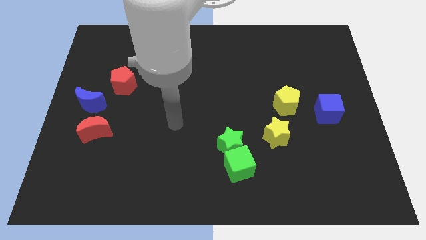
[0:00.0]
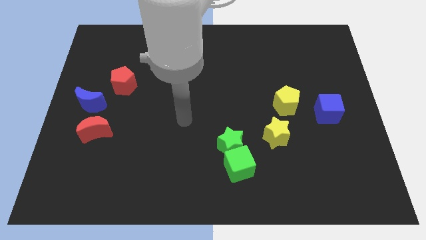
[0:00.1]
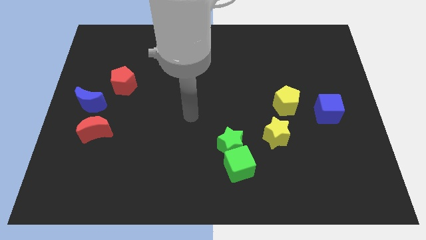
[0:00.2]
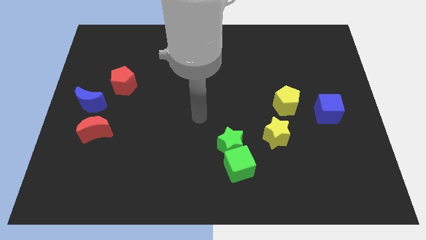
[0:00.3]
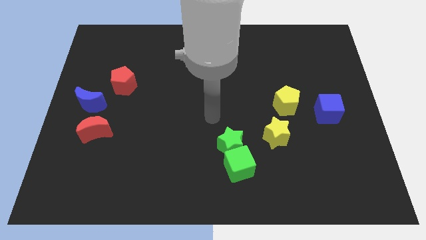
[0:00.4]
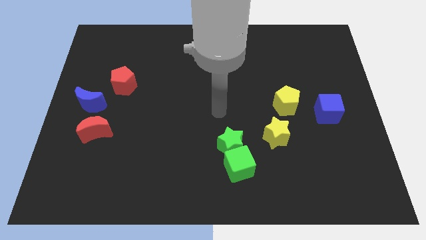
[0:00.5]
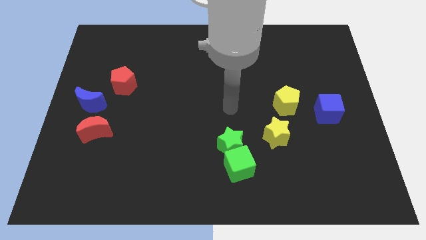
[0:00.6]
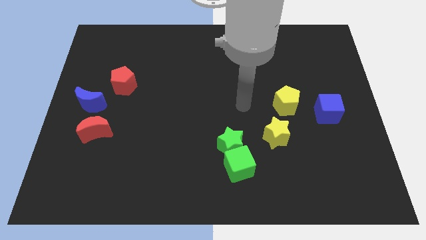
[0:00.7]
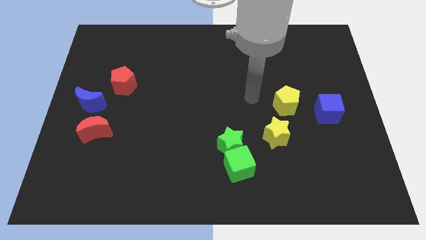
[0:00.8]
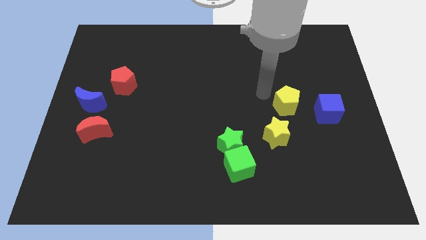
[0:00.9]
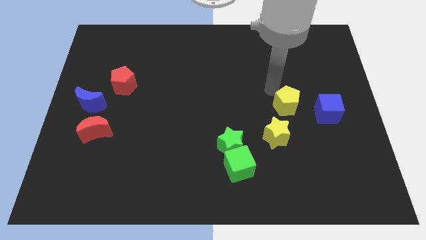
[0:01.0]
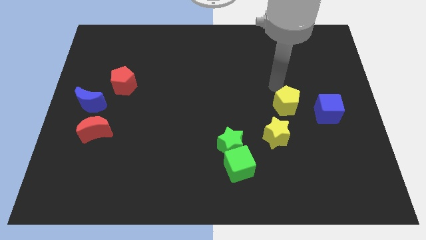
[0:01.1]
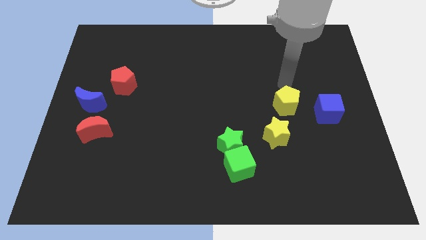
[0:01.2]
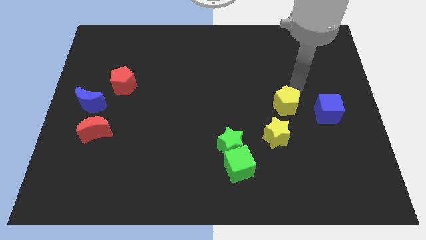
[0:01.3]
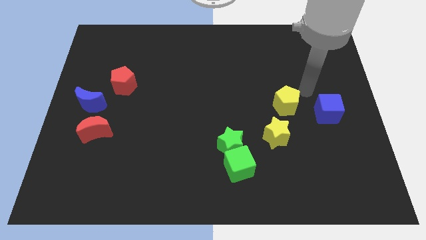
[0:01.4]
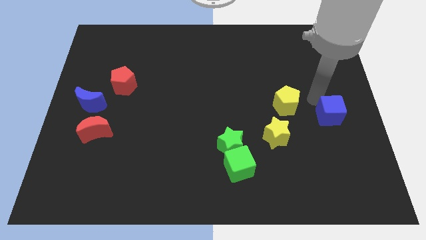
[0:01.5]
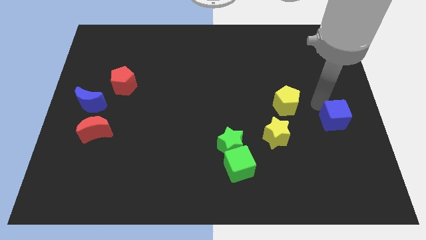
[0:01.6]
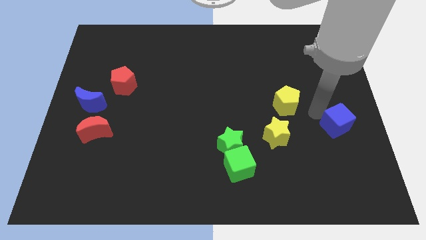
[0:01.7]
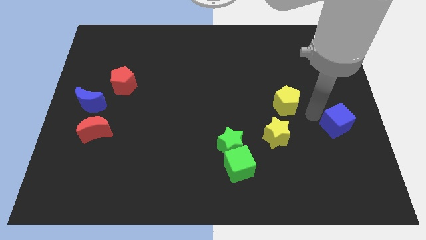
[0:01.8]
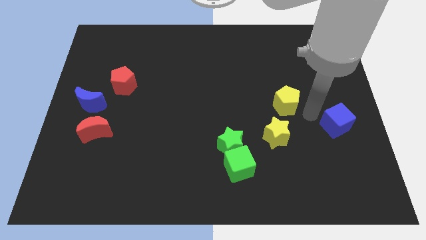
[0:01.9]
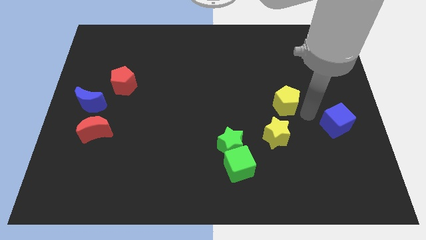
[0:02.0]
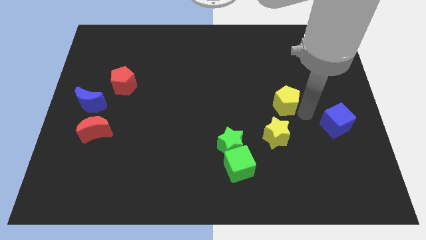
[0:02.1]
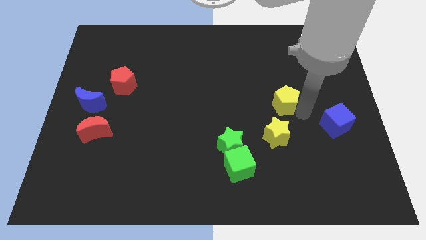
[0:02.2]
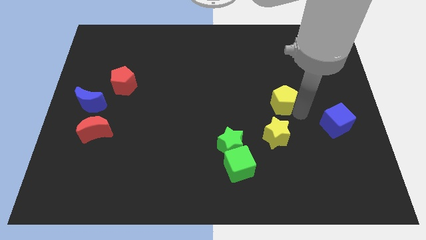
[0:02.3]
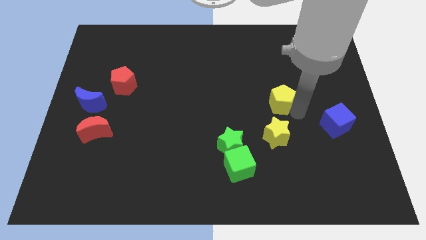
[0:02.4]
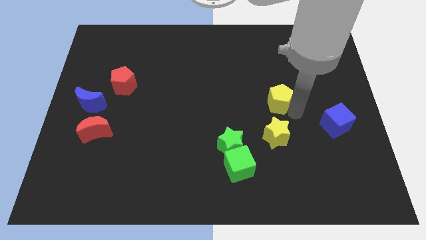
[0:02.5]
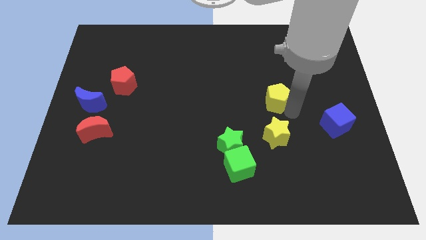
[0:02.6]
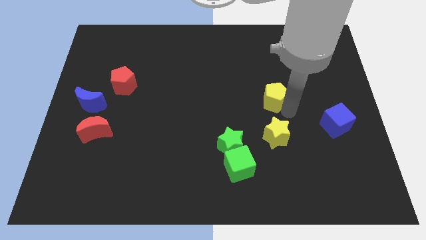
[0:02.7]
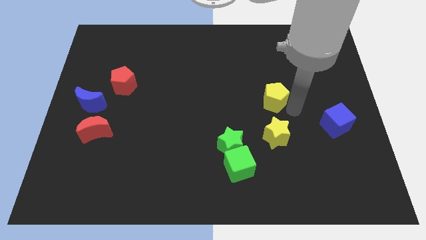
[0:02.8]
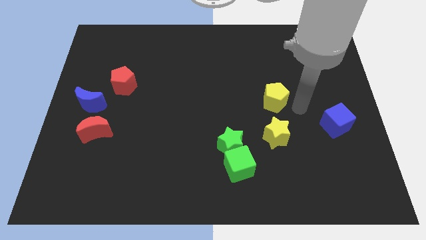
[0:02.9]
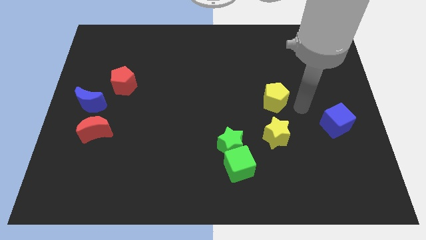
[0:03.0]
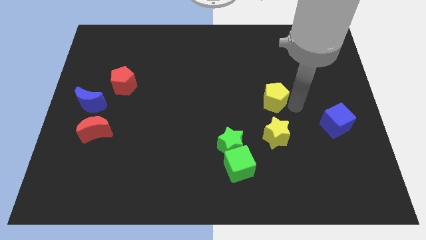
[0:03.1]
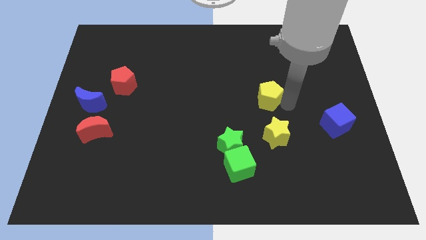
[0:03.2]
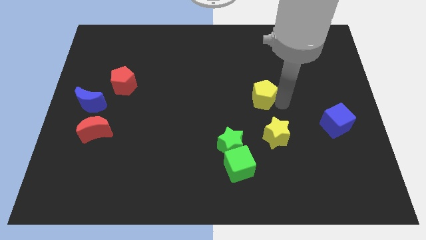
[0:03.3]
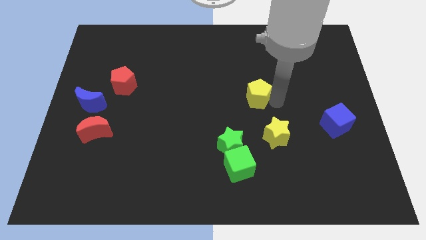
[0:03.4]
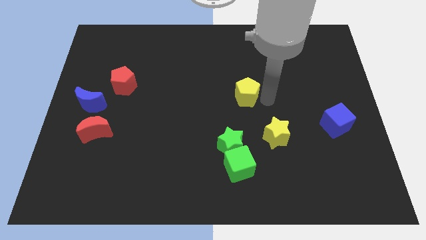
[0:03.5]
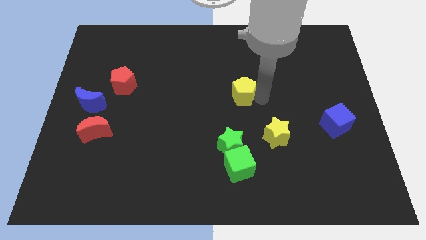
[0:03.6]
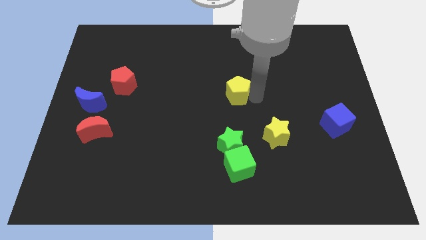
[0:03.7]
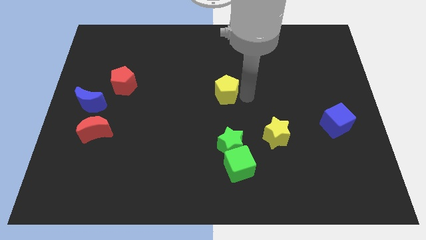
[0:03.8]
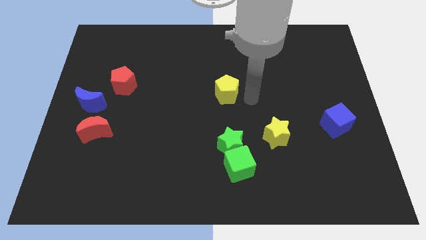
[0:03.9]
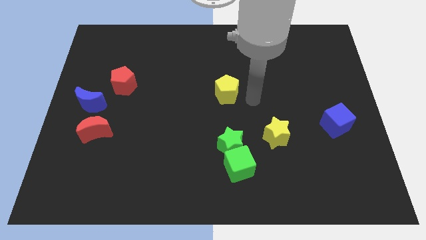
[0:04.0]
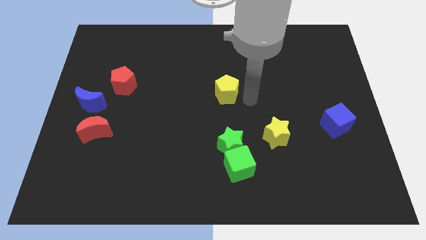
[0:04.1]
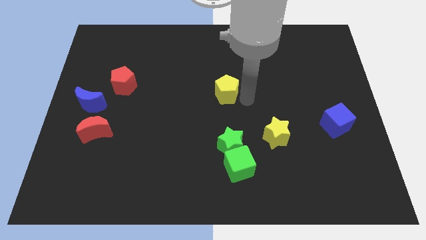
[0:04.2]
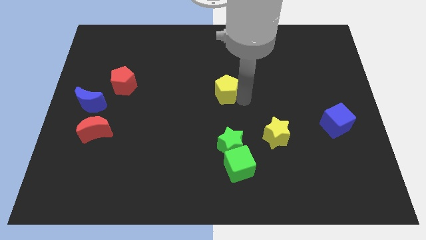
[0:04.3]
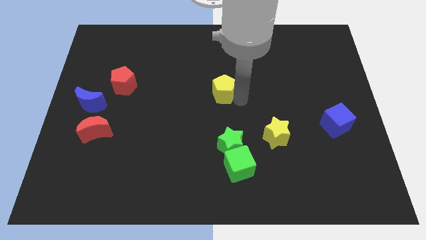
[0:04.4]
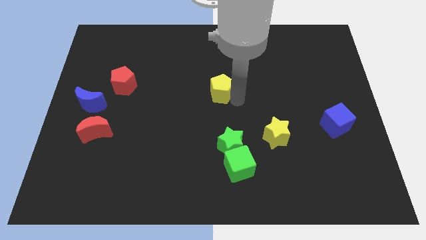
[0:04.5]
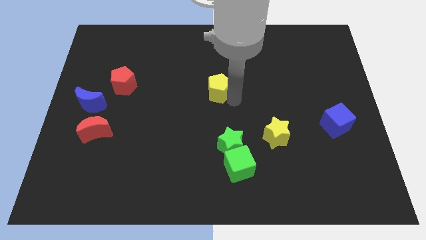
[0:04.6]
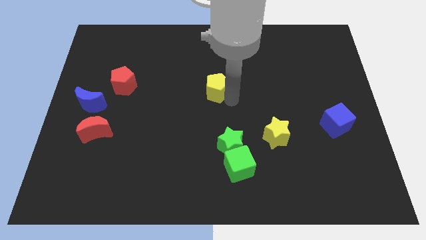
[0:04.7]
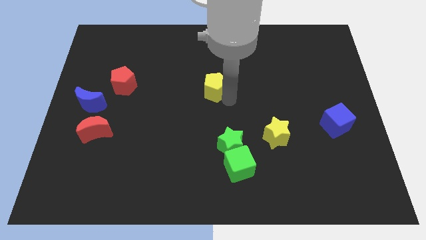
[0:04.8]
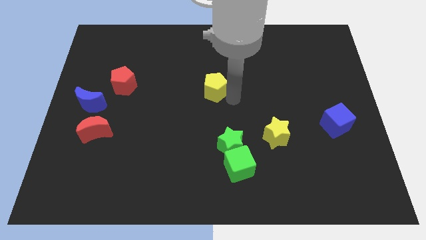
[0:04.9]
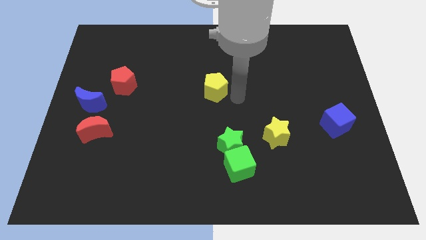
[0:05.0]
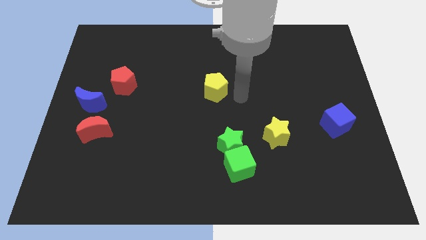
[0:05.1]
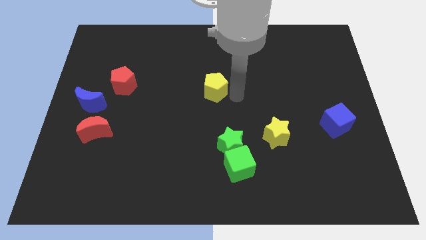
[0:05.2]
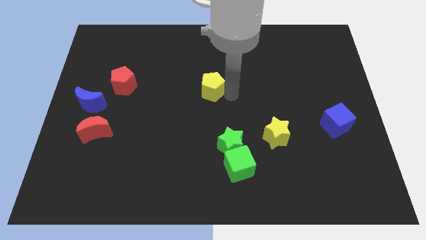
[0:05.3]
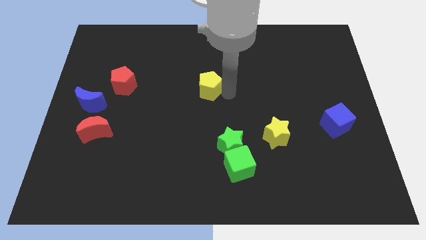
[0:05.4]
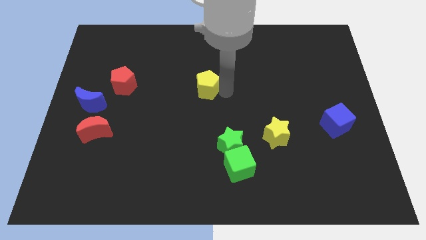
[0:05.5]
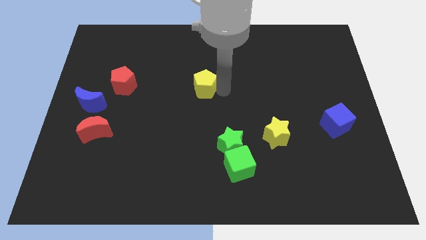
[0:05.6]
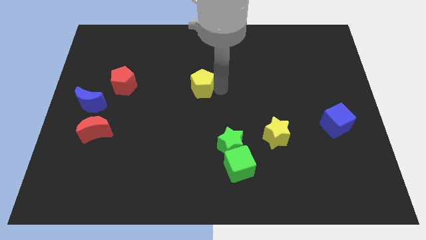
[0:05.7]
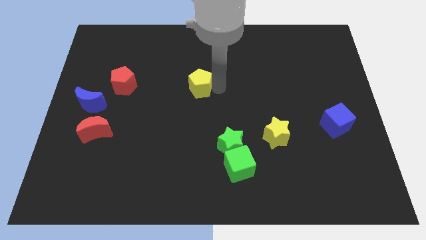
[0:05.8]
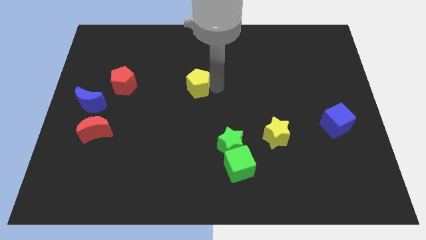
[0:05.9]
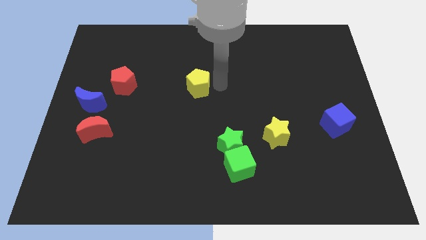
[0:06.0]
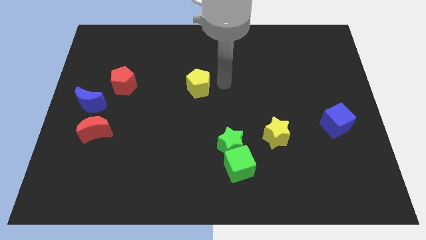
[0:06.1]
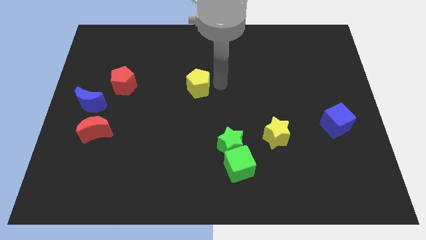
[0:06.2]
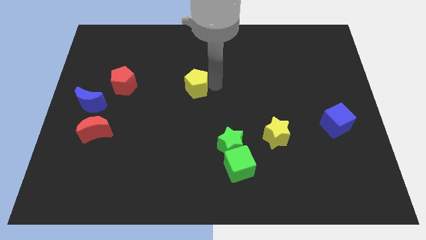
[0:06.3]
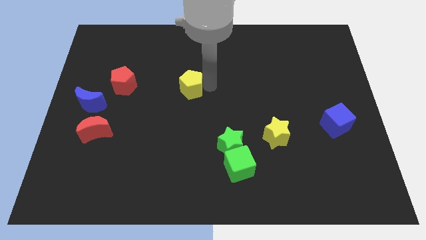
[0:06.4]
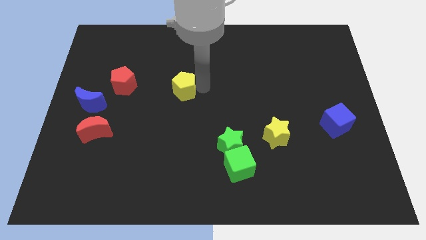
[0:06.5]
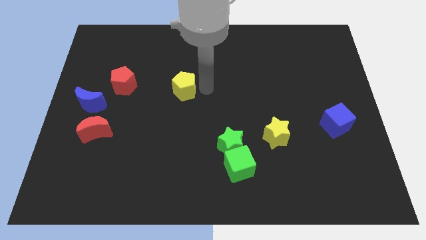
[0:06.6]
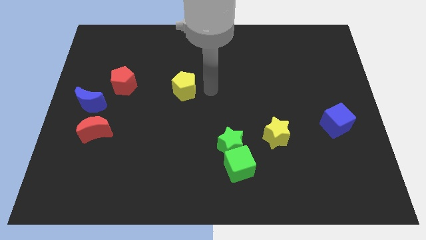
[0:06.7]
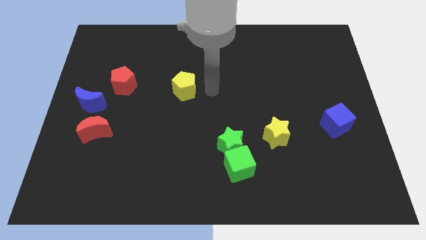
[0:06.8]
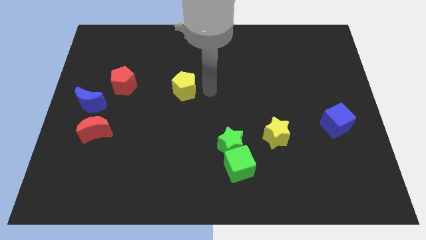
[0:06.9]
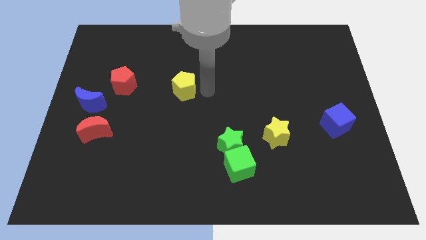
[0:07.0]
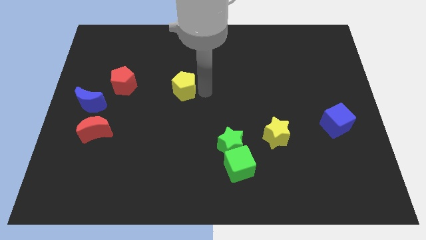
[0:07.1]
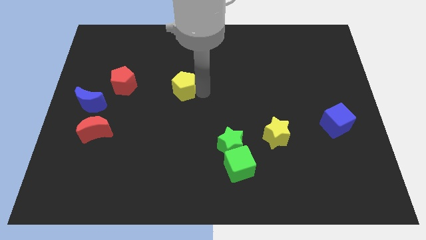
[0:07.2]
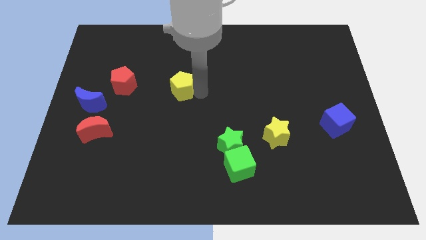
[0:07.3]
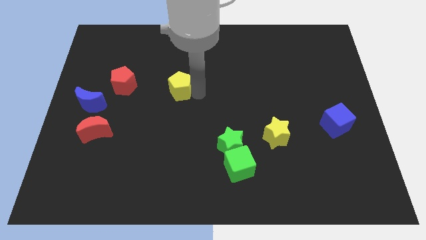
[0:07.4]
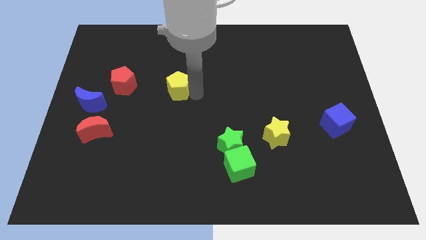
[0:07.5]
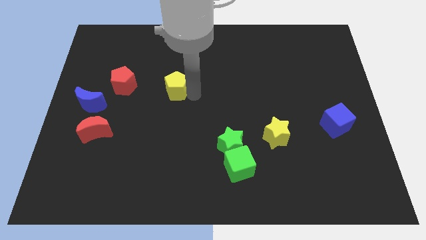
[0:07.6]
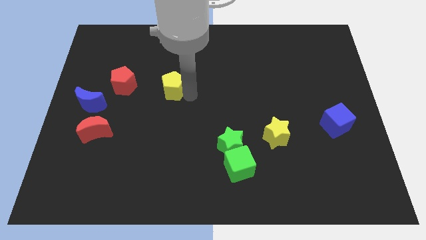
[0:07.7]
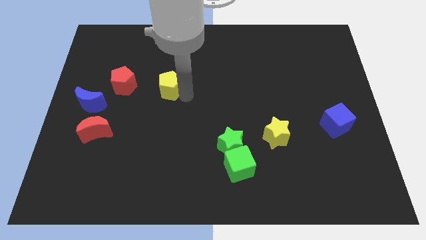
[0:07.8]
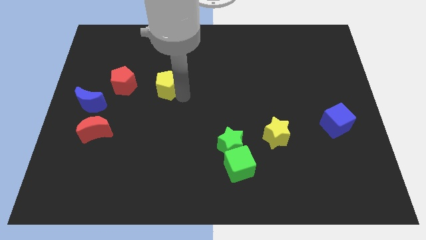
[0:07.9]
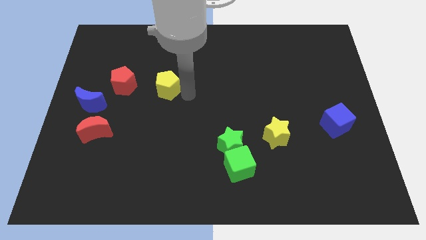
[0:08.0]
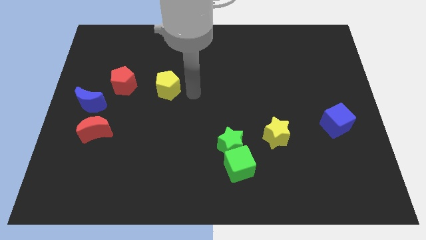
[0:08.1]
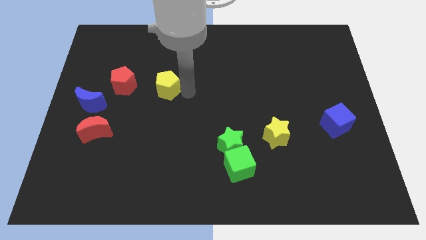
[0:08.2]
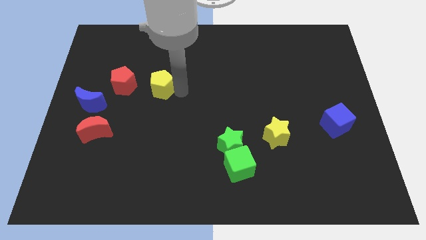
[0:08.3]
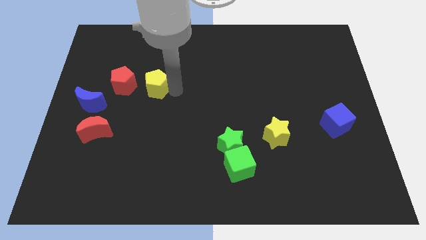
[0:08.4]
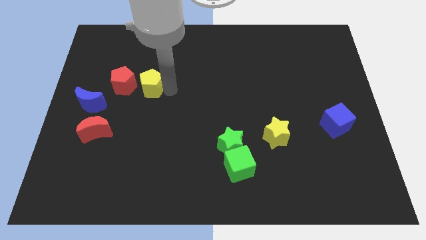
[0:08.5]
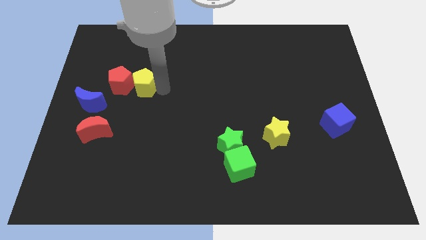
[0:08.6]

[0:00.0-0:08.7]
move the yellow pentagon towards the red pentagon
